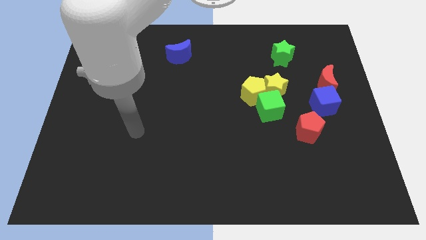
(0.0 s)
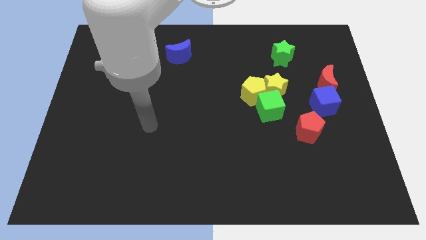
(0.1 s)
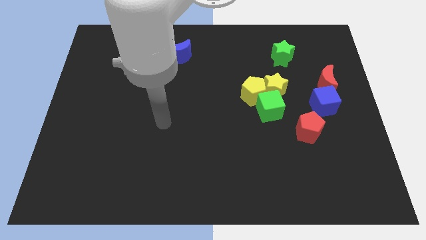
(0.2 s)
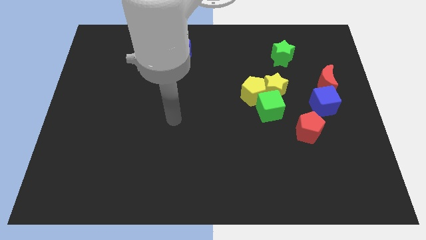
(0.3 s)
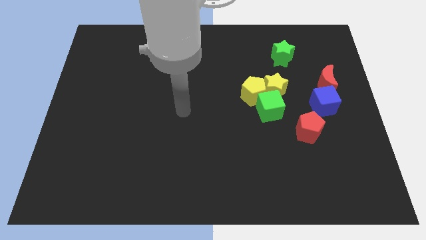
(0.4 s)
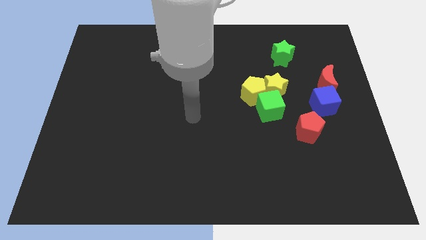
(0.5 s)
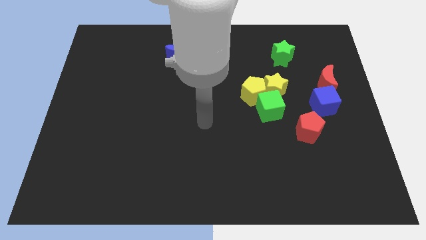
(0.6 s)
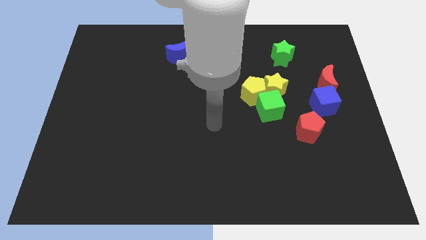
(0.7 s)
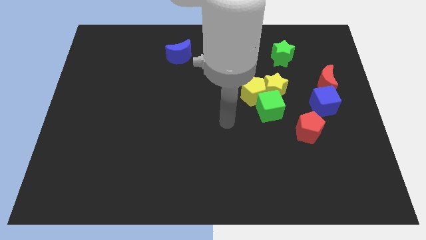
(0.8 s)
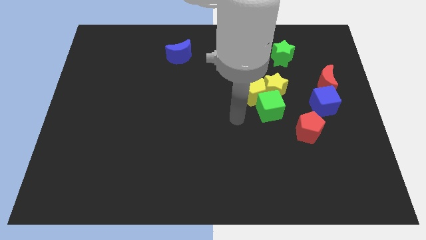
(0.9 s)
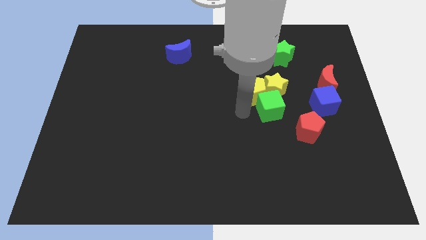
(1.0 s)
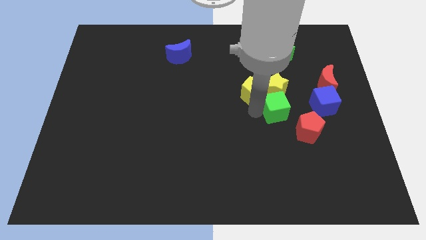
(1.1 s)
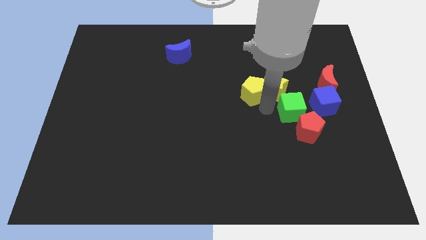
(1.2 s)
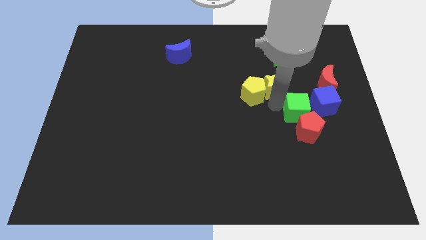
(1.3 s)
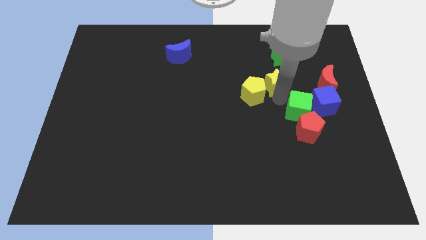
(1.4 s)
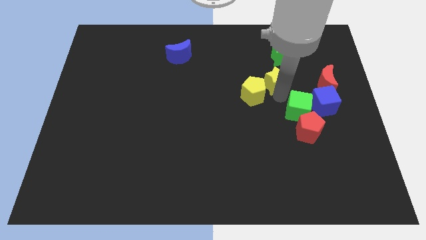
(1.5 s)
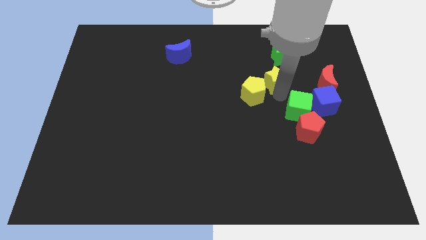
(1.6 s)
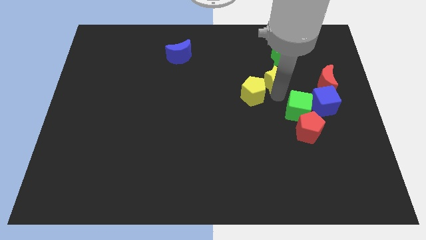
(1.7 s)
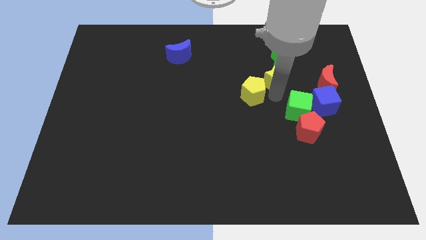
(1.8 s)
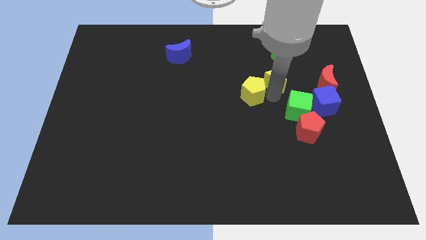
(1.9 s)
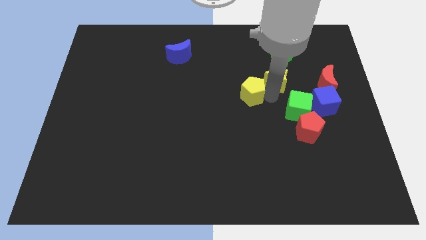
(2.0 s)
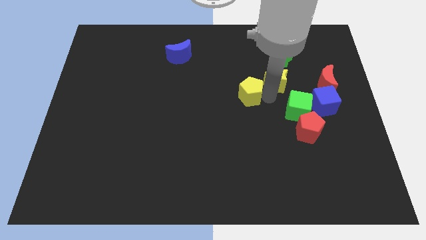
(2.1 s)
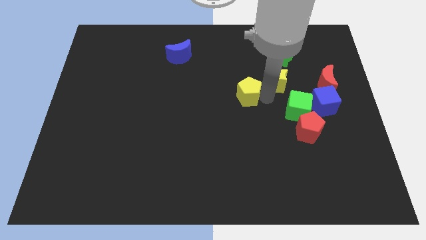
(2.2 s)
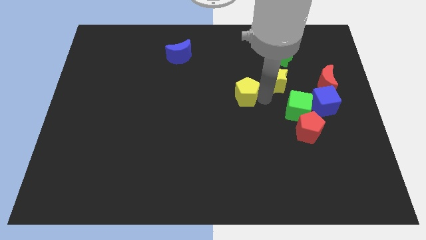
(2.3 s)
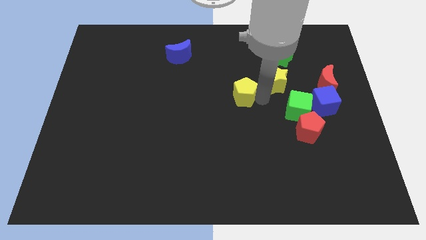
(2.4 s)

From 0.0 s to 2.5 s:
separate the yellow pentagon from the yellow star and green cube

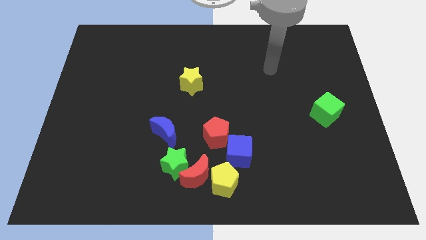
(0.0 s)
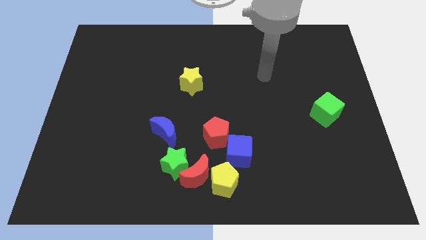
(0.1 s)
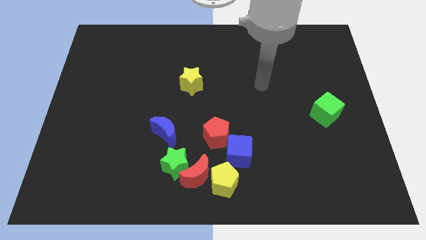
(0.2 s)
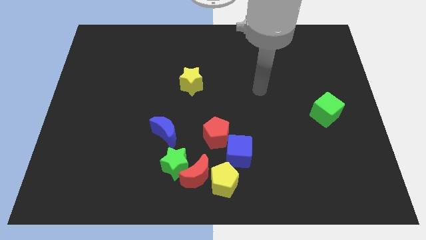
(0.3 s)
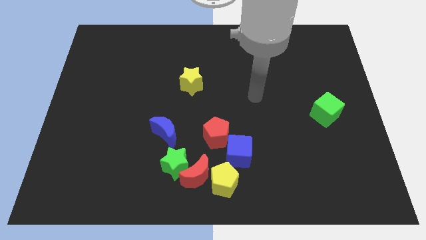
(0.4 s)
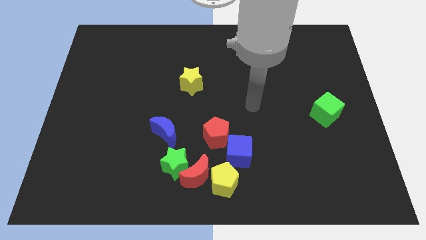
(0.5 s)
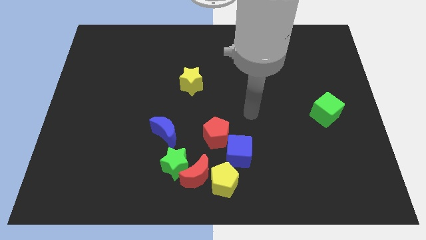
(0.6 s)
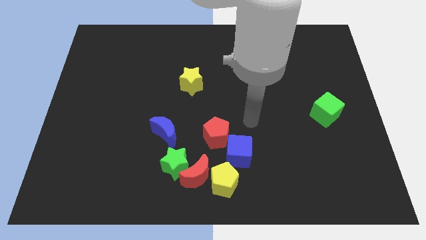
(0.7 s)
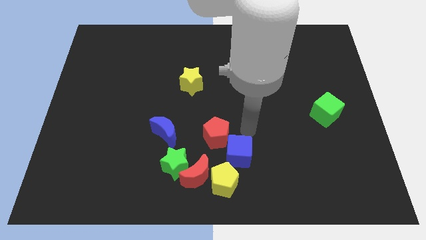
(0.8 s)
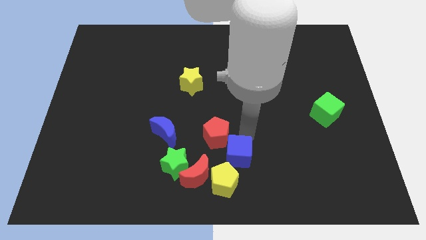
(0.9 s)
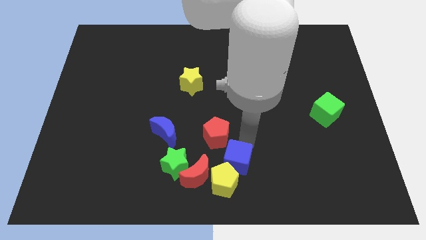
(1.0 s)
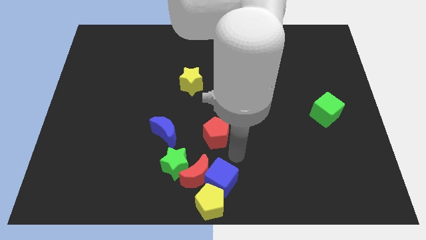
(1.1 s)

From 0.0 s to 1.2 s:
separate the red pentagon from the blue cube

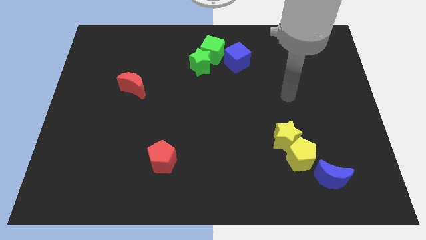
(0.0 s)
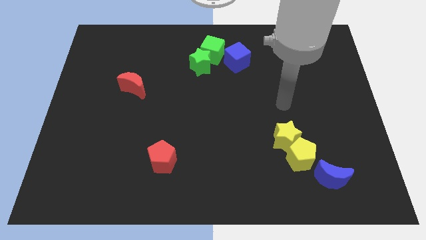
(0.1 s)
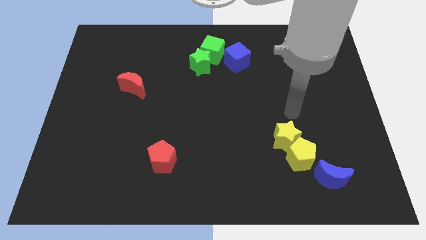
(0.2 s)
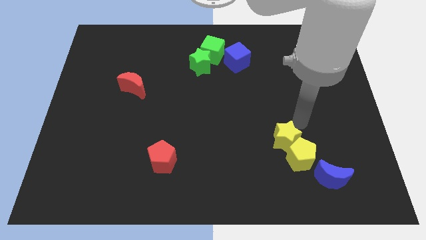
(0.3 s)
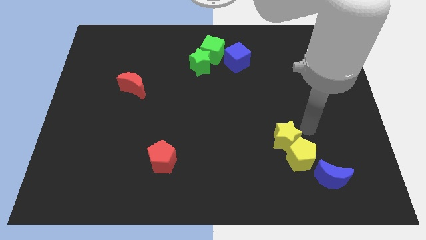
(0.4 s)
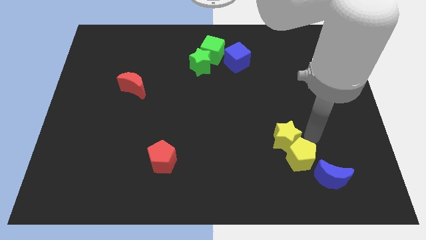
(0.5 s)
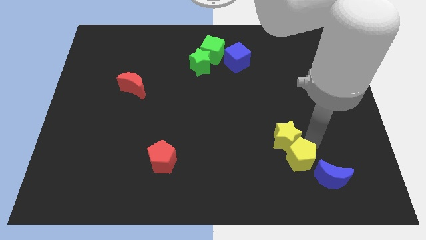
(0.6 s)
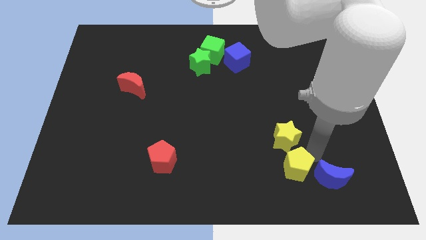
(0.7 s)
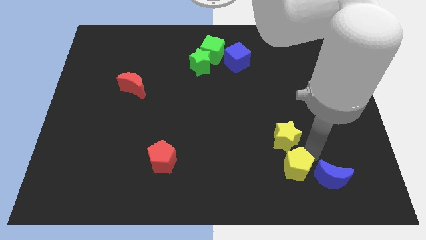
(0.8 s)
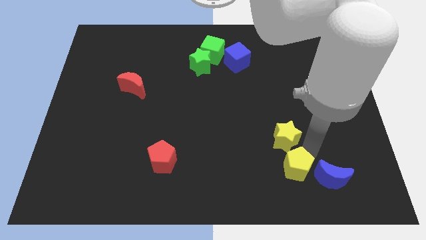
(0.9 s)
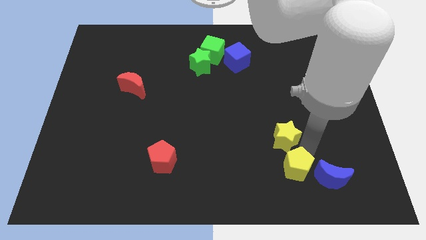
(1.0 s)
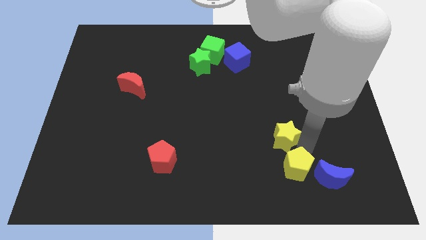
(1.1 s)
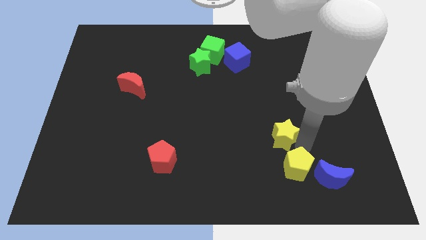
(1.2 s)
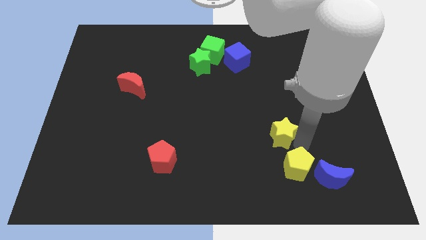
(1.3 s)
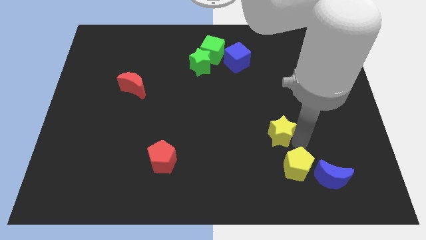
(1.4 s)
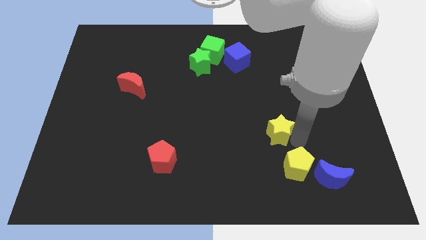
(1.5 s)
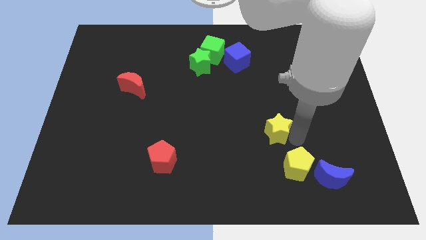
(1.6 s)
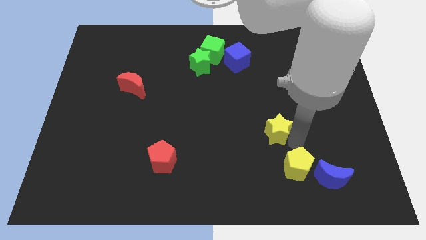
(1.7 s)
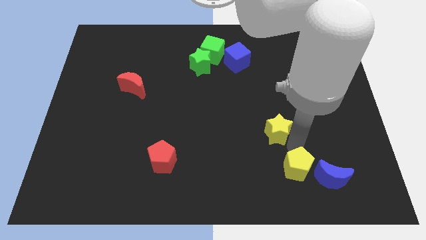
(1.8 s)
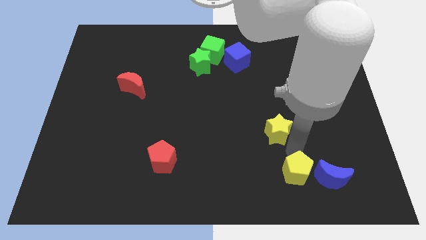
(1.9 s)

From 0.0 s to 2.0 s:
pull the yellow star apart from the yellow pentagon

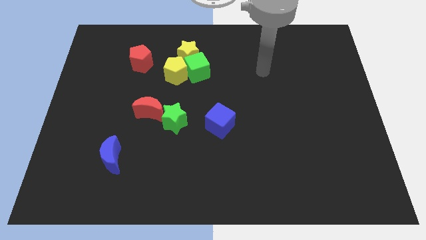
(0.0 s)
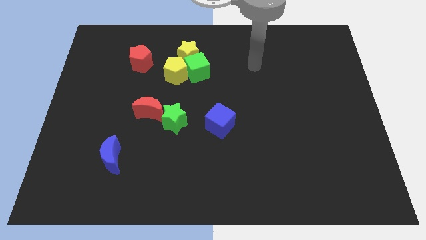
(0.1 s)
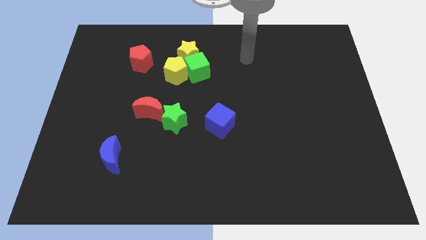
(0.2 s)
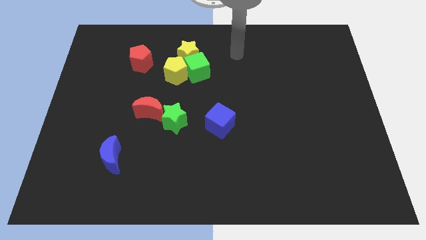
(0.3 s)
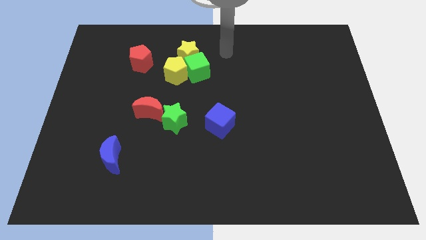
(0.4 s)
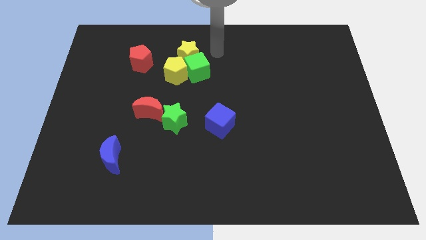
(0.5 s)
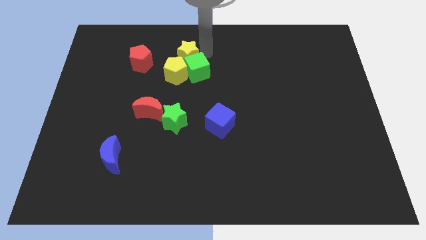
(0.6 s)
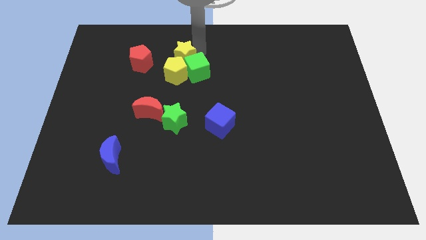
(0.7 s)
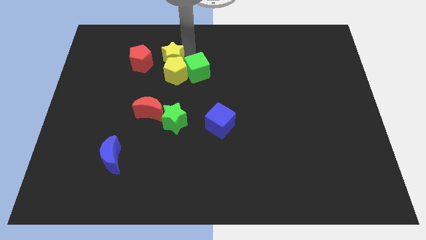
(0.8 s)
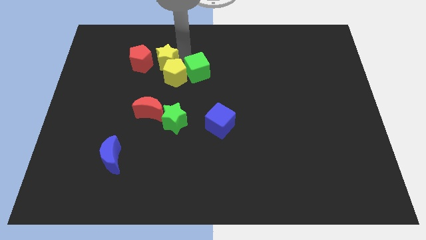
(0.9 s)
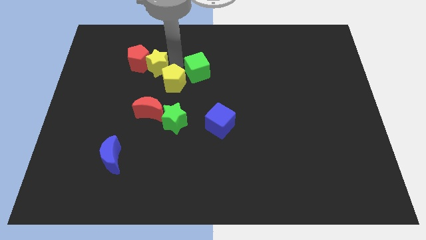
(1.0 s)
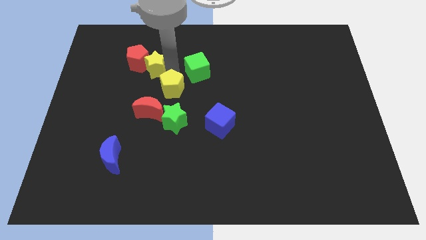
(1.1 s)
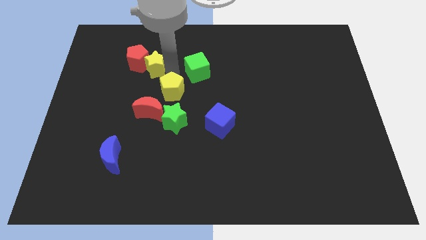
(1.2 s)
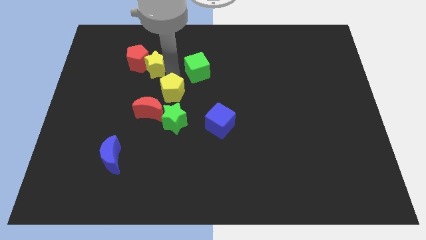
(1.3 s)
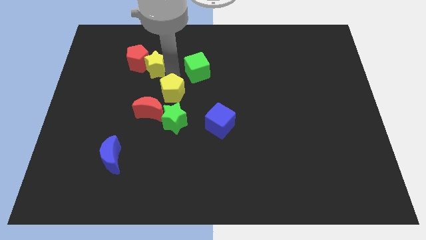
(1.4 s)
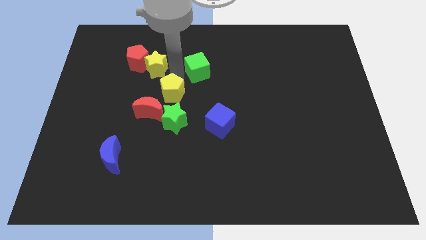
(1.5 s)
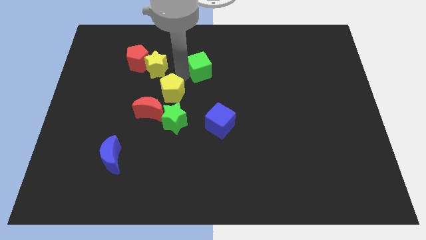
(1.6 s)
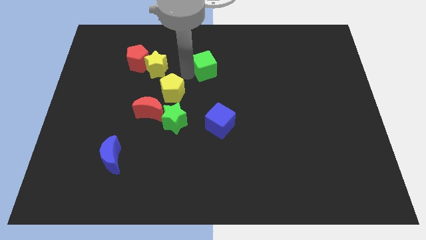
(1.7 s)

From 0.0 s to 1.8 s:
pull the green cube apart from the yellow pentagon and yellow star

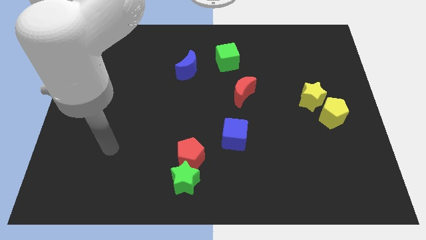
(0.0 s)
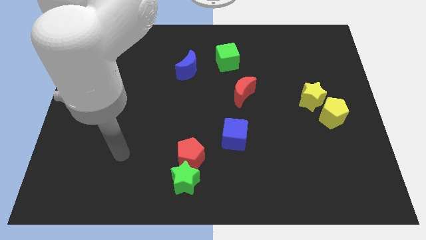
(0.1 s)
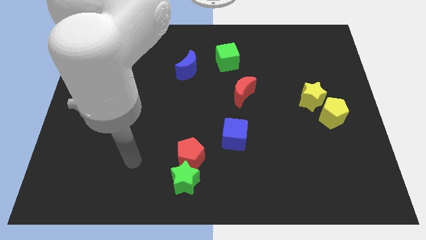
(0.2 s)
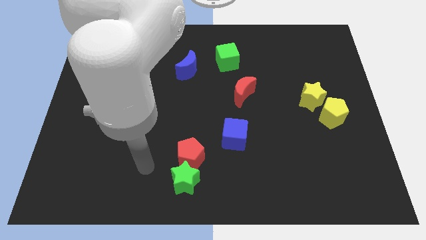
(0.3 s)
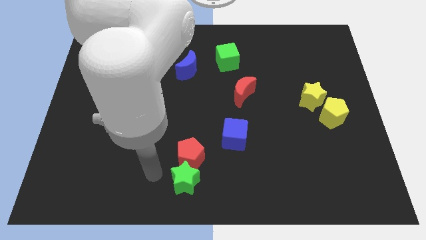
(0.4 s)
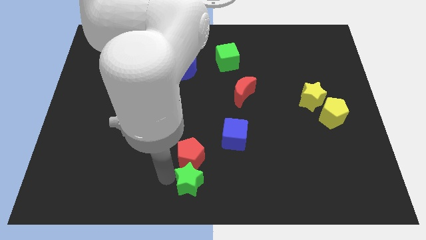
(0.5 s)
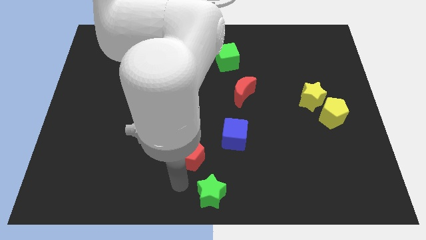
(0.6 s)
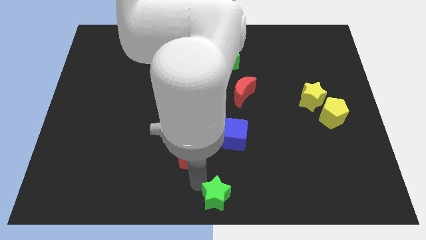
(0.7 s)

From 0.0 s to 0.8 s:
move the red pentagon away from the green star

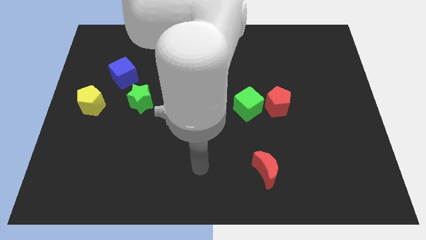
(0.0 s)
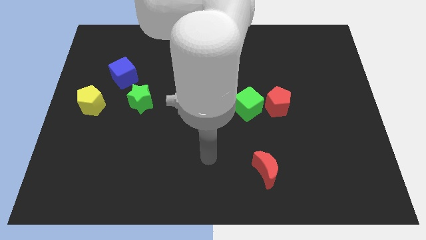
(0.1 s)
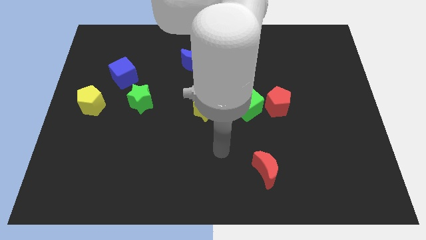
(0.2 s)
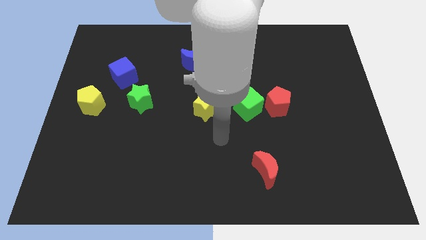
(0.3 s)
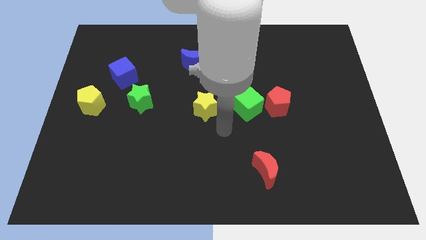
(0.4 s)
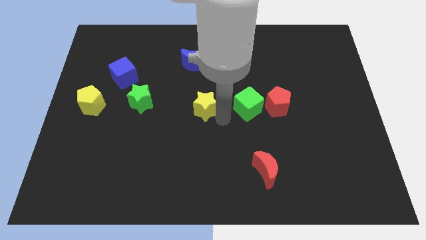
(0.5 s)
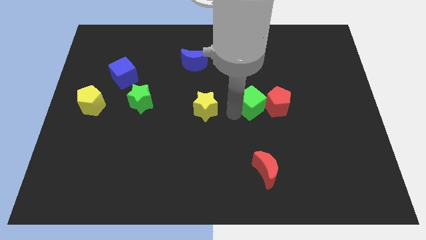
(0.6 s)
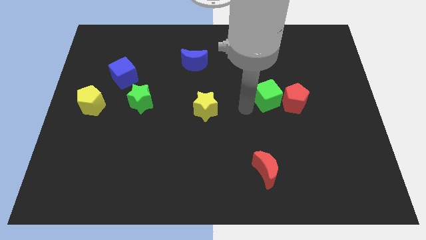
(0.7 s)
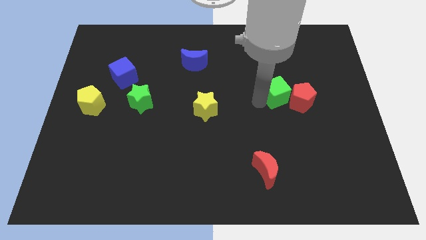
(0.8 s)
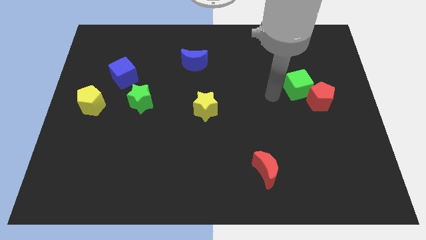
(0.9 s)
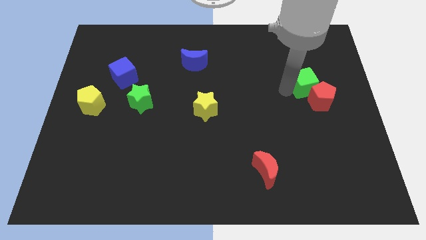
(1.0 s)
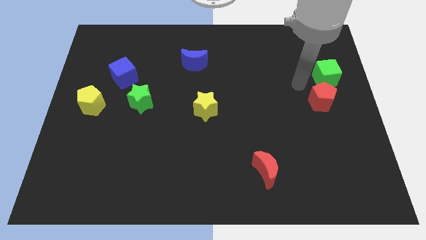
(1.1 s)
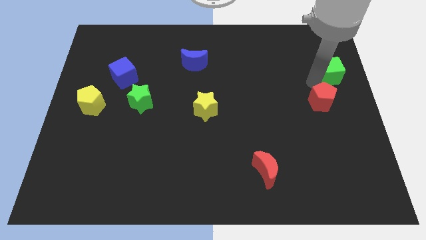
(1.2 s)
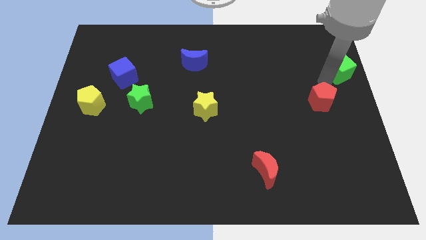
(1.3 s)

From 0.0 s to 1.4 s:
separate the red pentagon from the green cube
